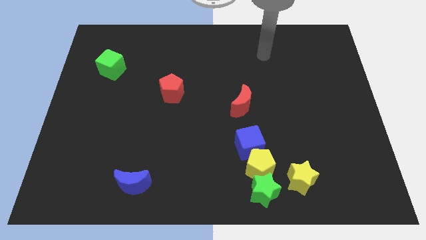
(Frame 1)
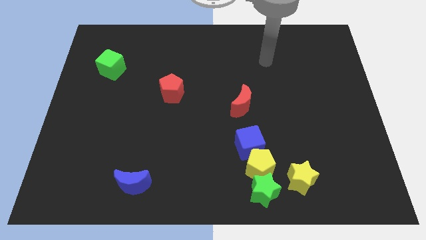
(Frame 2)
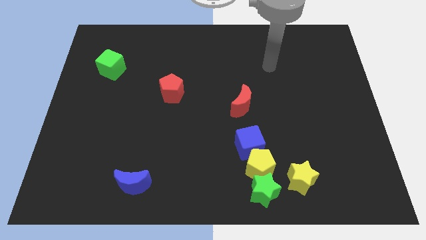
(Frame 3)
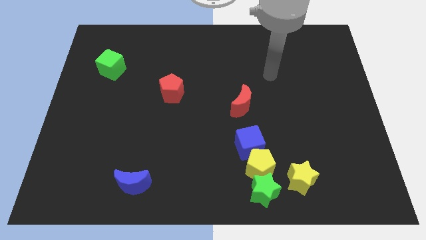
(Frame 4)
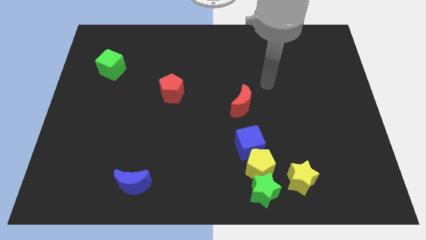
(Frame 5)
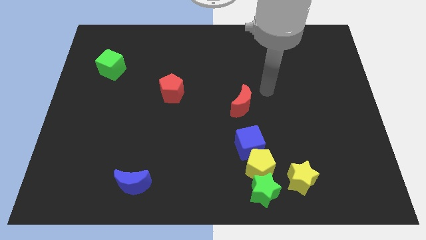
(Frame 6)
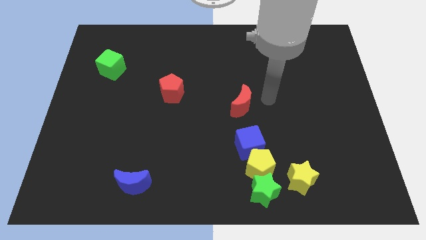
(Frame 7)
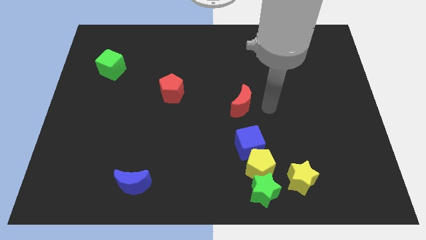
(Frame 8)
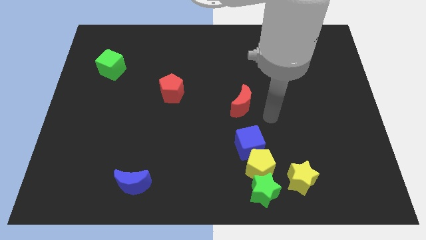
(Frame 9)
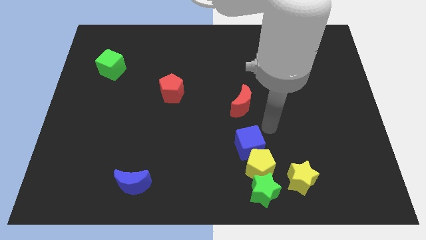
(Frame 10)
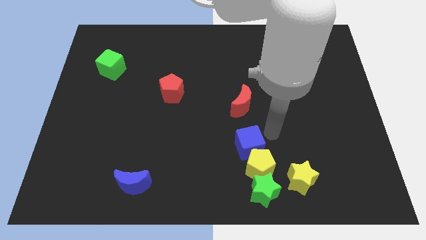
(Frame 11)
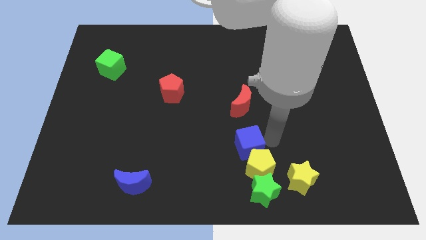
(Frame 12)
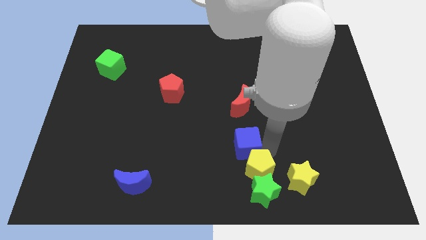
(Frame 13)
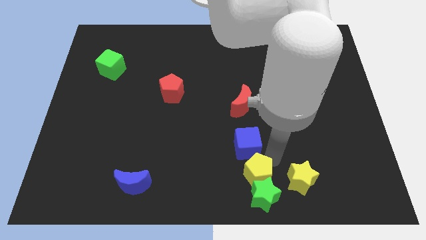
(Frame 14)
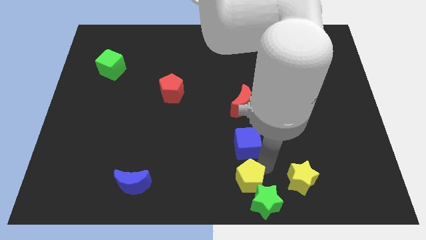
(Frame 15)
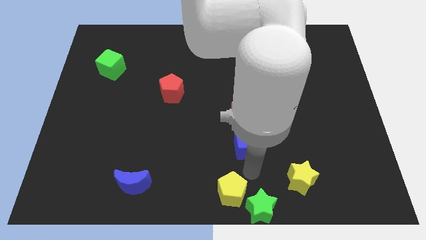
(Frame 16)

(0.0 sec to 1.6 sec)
pull the blue cube apart from the yellow pentagon

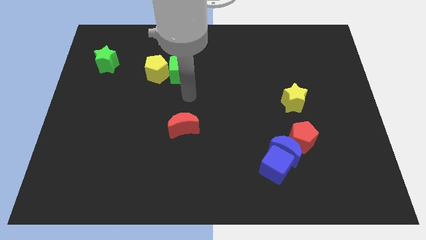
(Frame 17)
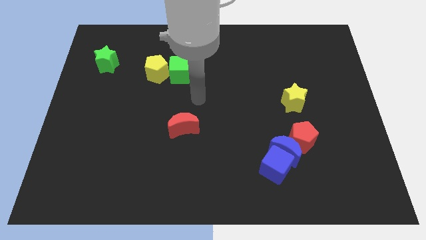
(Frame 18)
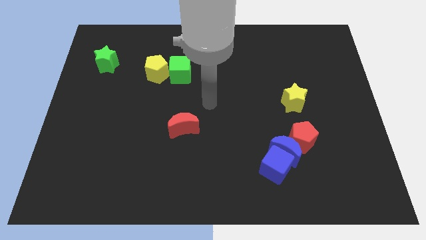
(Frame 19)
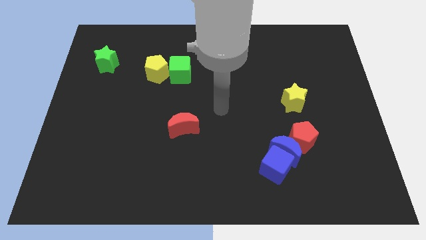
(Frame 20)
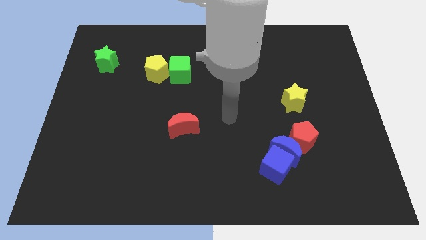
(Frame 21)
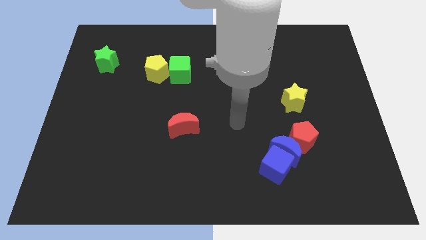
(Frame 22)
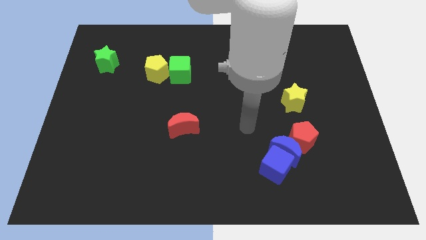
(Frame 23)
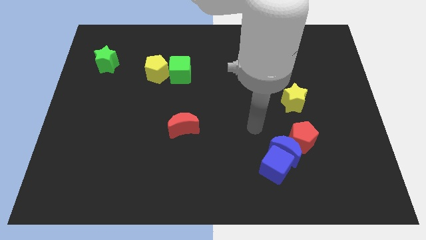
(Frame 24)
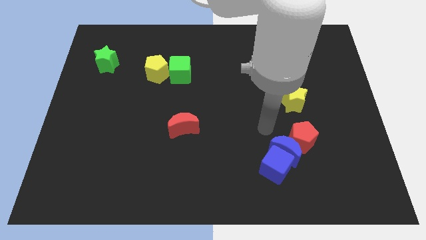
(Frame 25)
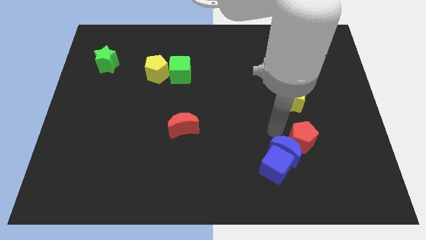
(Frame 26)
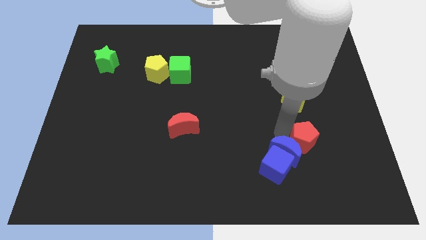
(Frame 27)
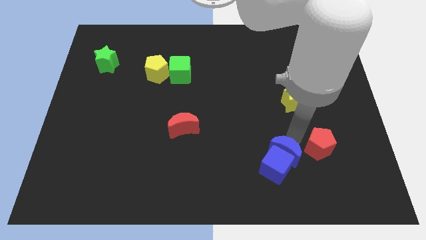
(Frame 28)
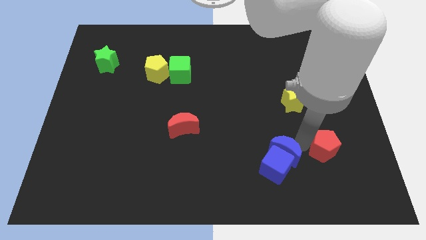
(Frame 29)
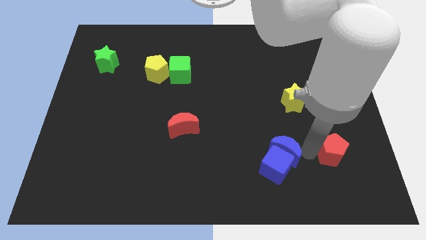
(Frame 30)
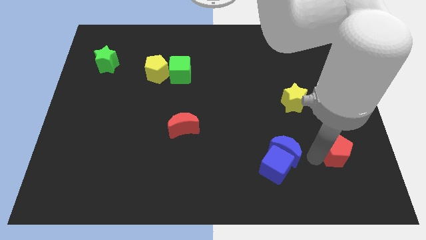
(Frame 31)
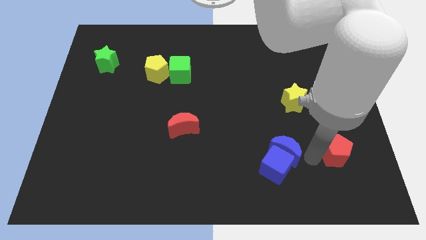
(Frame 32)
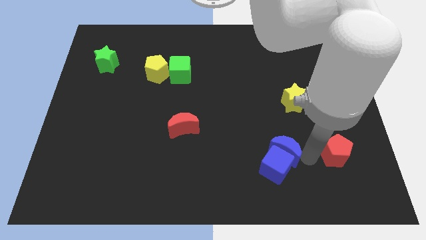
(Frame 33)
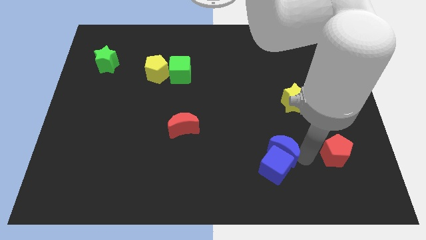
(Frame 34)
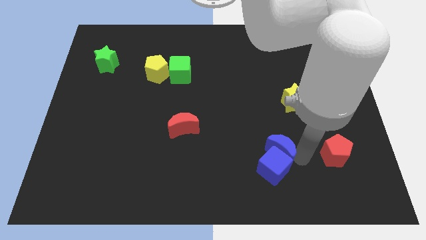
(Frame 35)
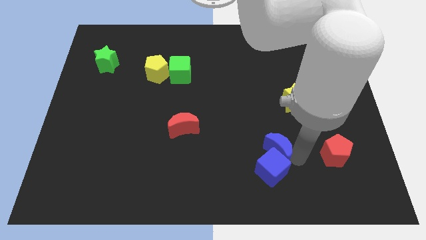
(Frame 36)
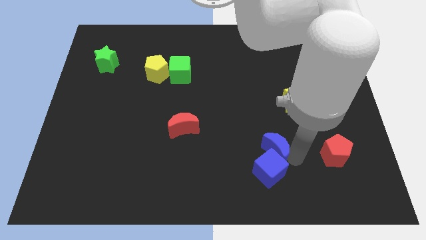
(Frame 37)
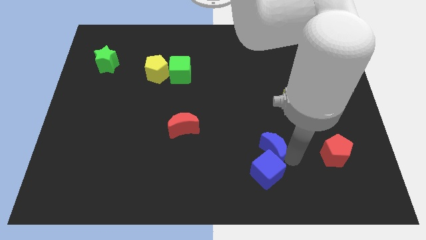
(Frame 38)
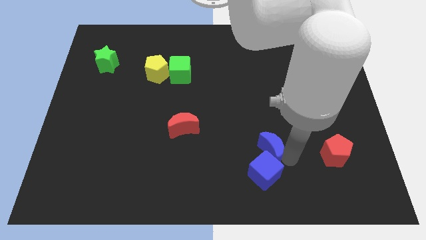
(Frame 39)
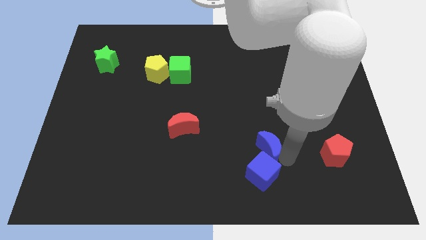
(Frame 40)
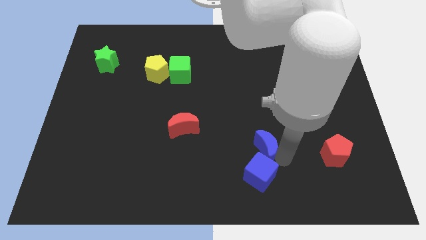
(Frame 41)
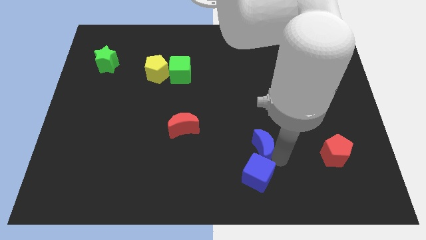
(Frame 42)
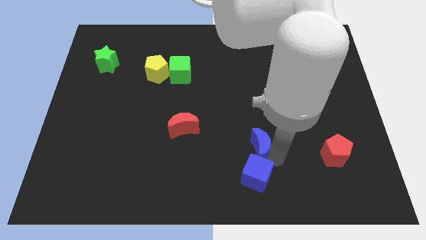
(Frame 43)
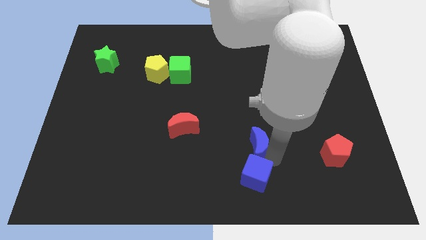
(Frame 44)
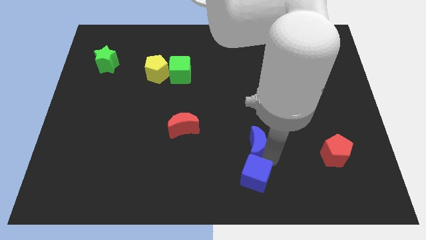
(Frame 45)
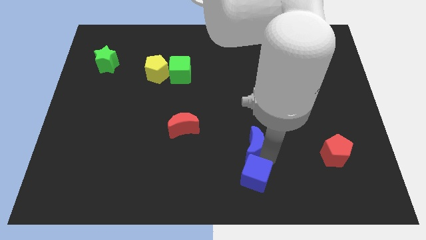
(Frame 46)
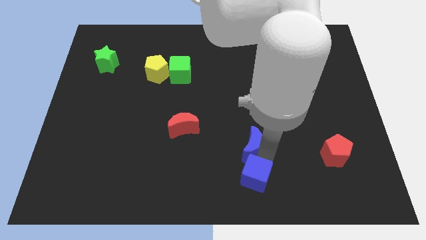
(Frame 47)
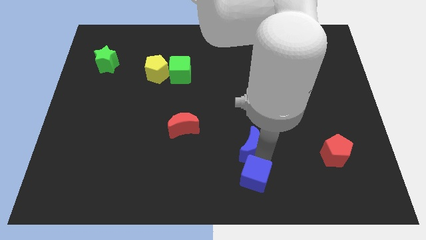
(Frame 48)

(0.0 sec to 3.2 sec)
move the blue moon away from the blue cube and red pentagon

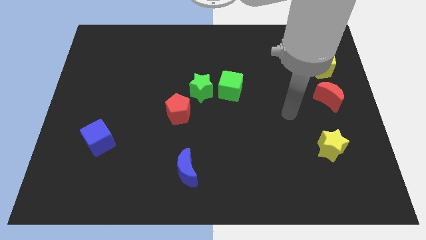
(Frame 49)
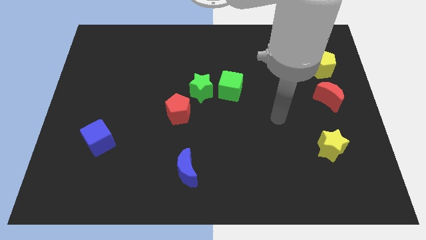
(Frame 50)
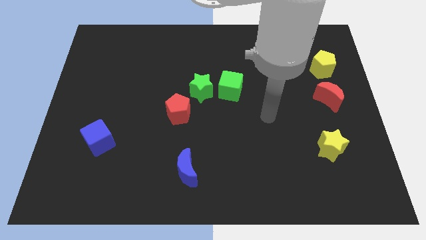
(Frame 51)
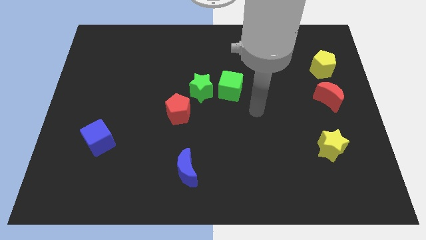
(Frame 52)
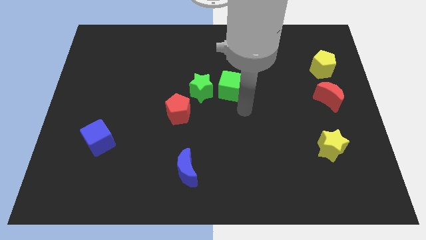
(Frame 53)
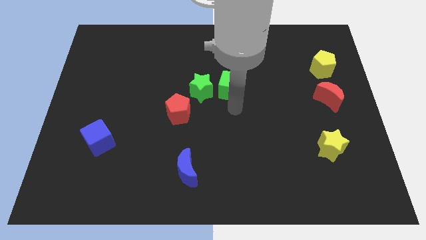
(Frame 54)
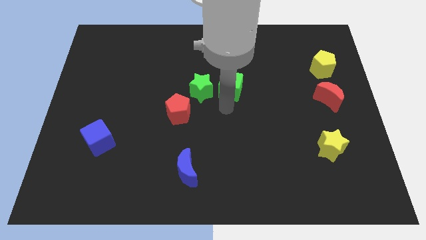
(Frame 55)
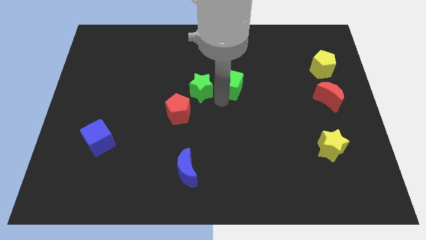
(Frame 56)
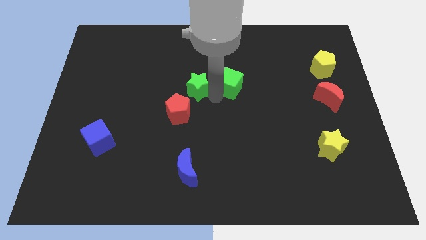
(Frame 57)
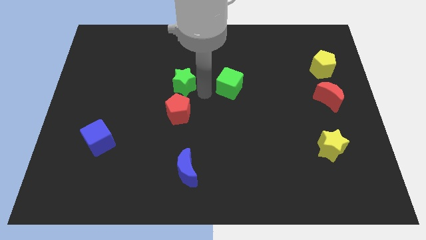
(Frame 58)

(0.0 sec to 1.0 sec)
separate the green cube from the green star

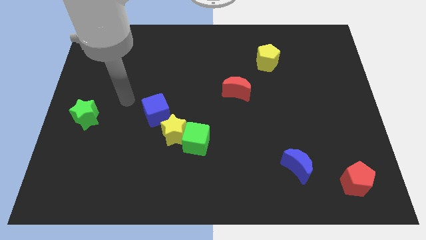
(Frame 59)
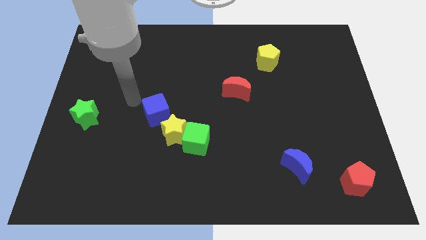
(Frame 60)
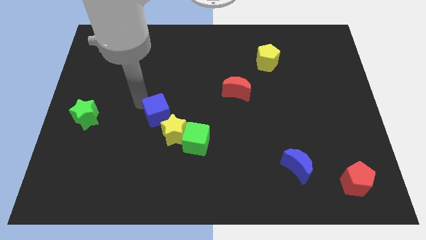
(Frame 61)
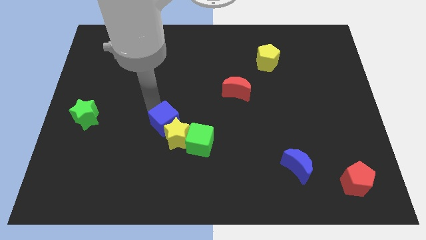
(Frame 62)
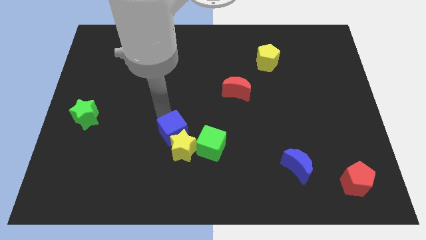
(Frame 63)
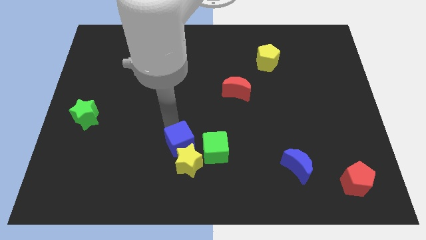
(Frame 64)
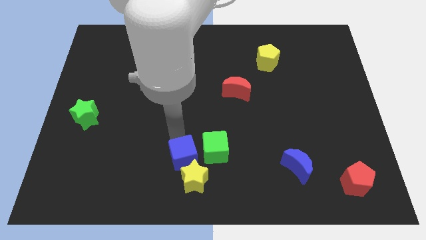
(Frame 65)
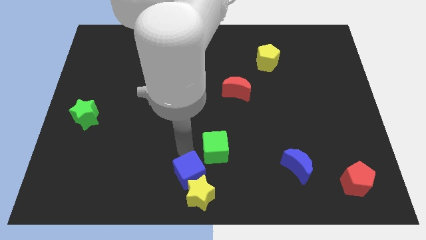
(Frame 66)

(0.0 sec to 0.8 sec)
pull the green cube apart from the yellow star

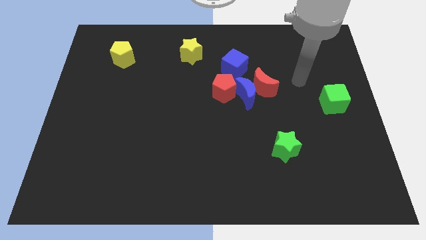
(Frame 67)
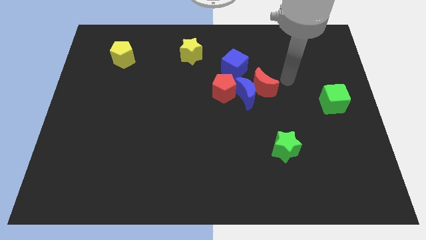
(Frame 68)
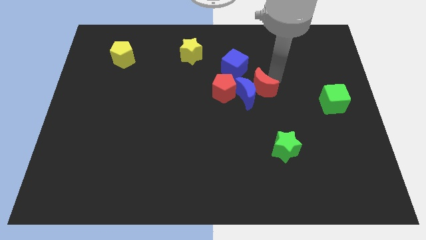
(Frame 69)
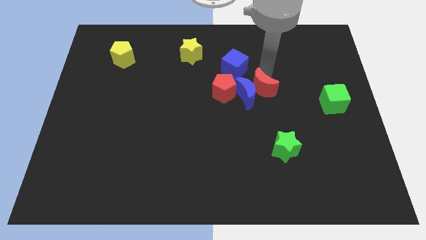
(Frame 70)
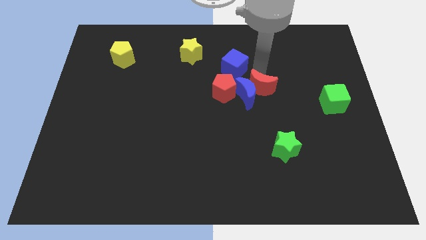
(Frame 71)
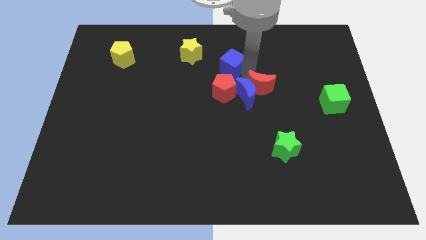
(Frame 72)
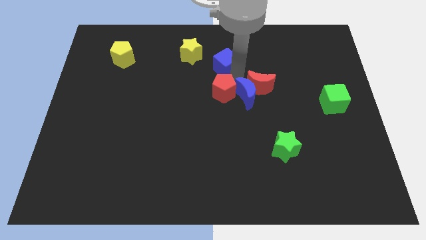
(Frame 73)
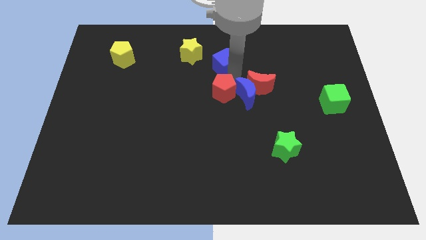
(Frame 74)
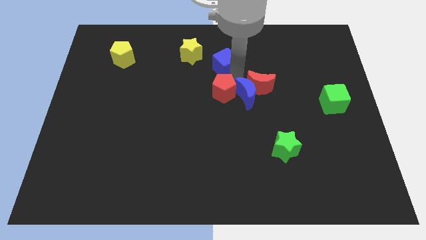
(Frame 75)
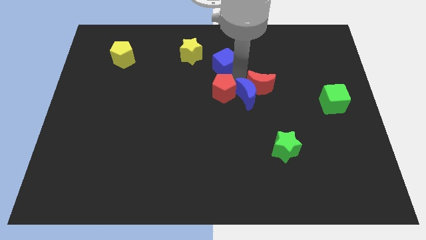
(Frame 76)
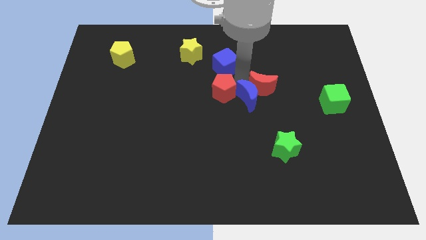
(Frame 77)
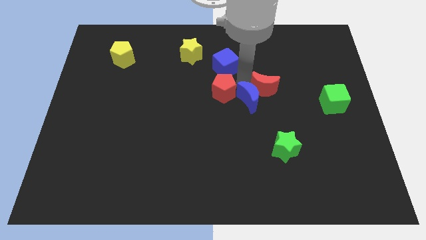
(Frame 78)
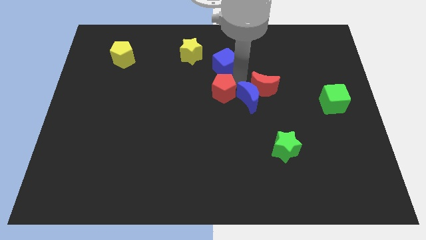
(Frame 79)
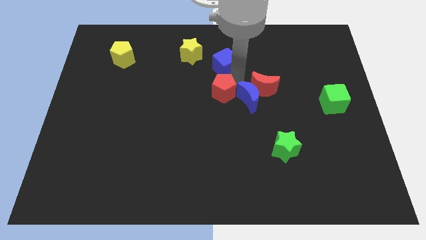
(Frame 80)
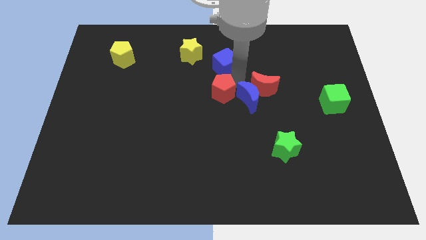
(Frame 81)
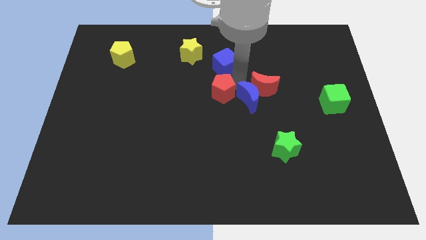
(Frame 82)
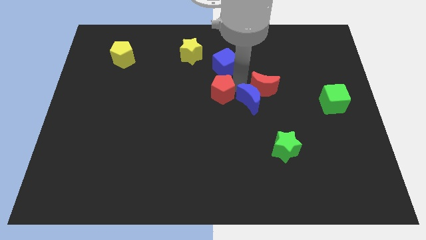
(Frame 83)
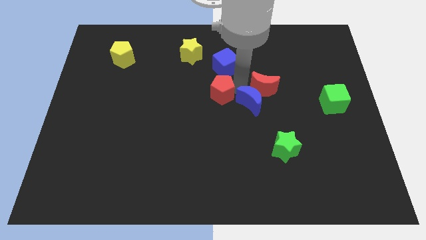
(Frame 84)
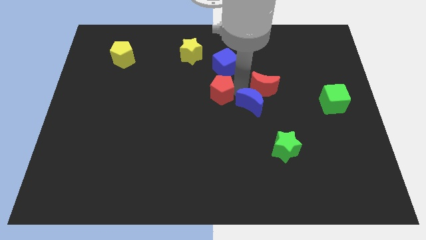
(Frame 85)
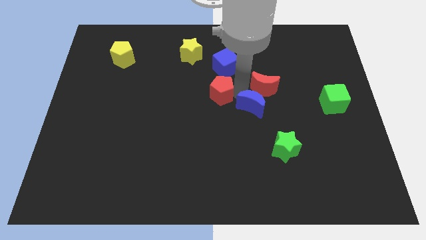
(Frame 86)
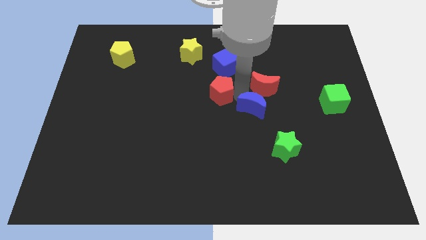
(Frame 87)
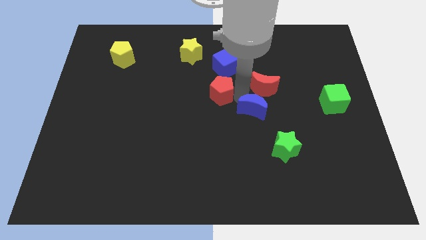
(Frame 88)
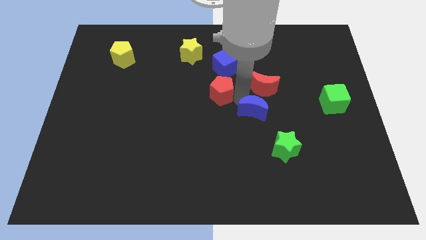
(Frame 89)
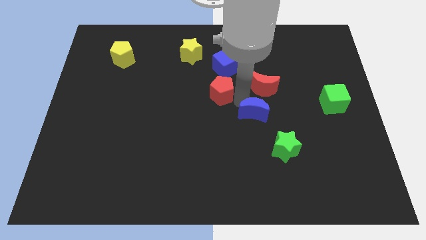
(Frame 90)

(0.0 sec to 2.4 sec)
move the blue moon away from the red moon, red pentagon, and blue cube

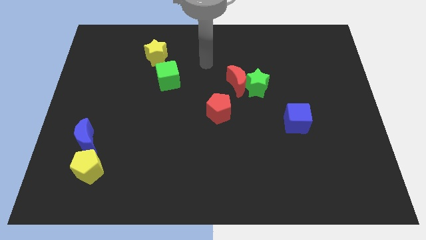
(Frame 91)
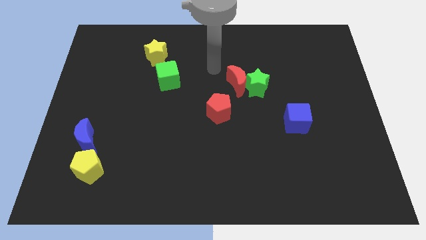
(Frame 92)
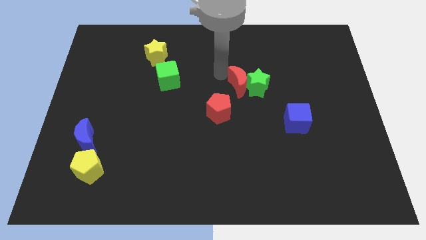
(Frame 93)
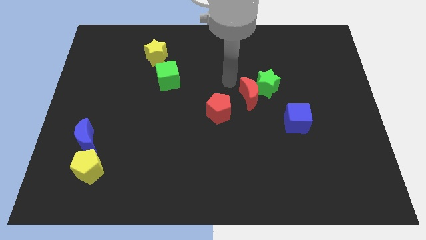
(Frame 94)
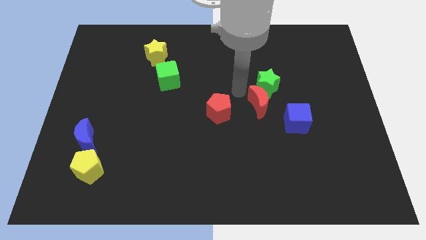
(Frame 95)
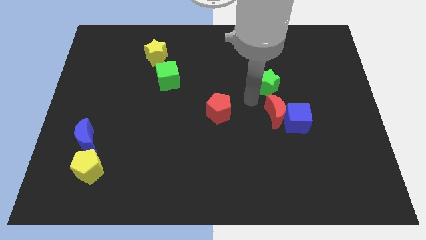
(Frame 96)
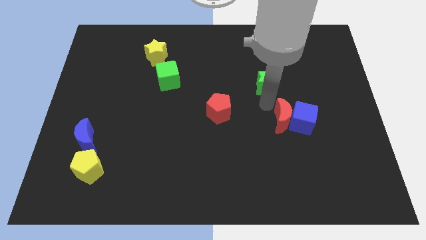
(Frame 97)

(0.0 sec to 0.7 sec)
pull the green star apart from the red moon
